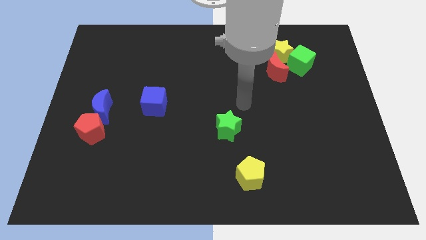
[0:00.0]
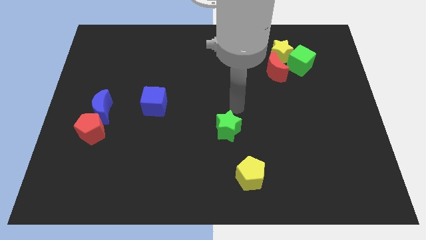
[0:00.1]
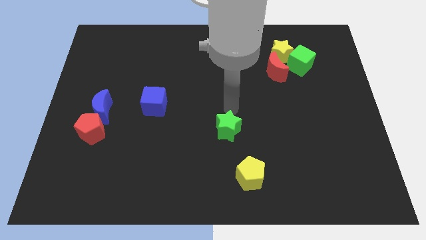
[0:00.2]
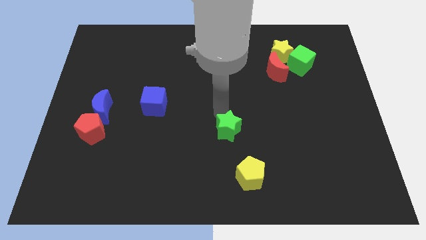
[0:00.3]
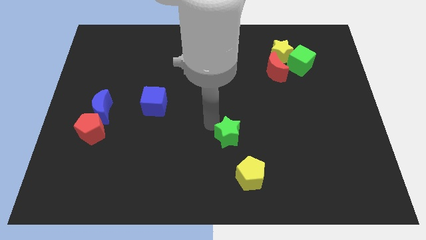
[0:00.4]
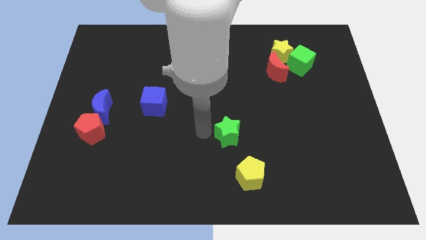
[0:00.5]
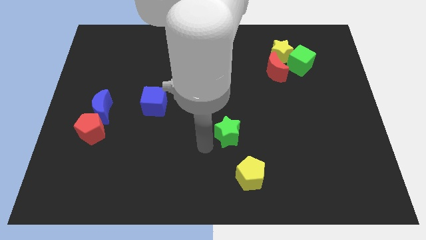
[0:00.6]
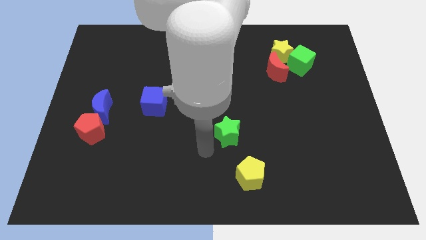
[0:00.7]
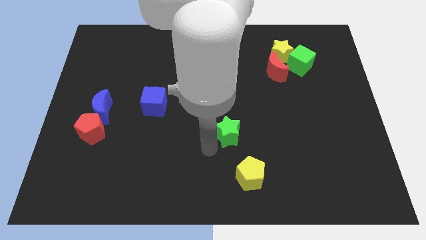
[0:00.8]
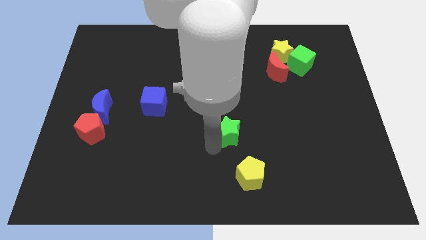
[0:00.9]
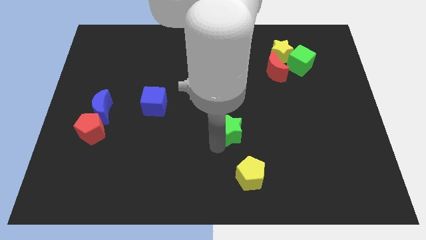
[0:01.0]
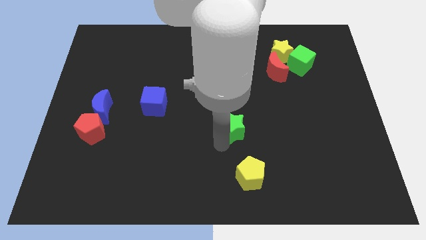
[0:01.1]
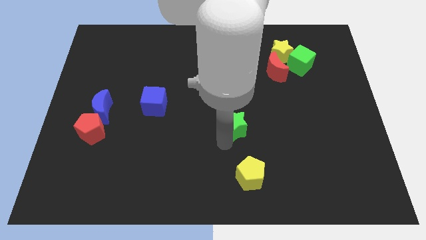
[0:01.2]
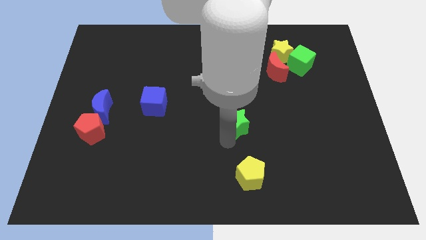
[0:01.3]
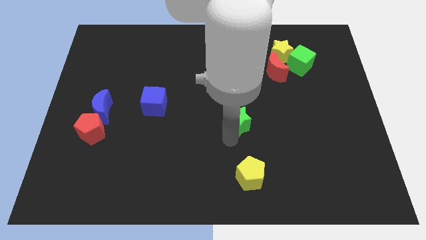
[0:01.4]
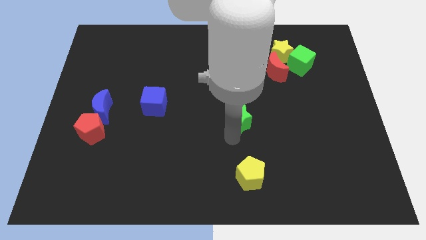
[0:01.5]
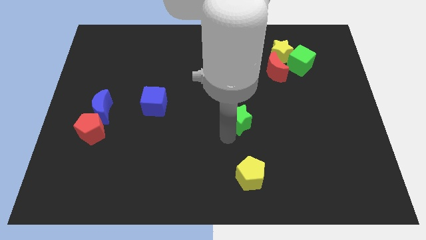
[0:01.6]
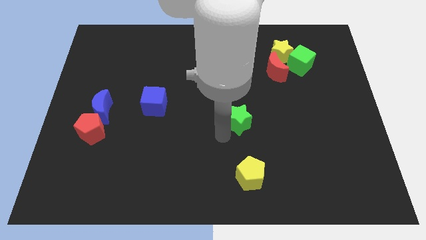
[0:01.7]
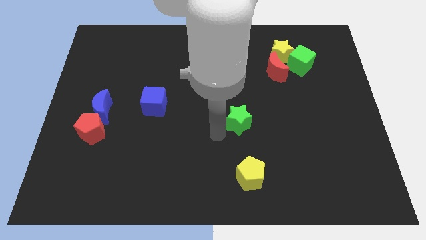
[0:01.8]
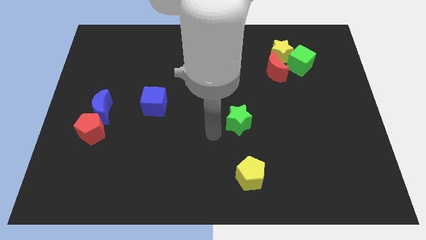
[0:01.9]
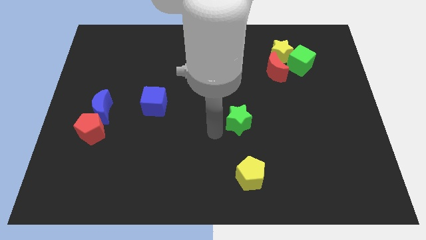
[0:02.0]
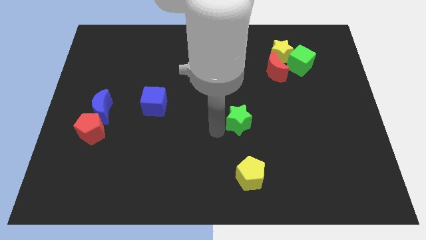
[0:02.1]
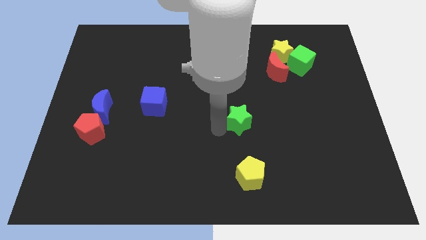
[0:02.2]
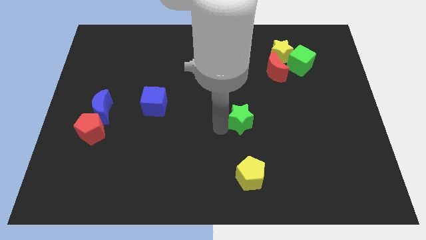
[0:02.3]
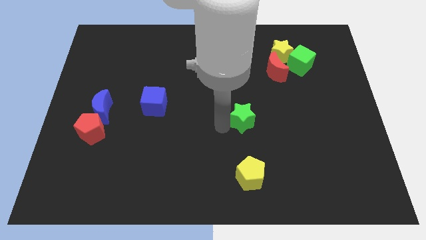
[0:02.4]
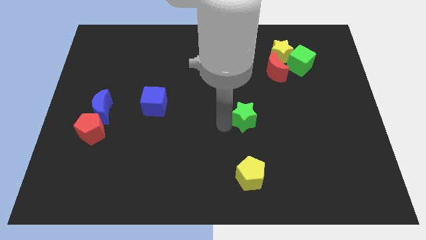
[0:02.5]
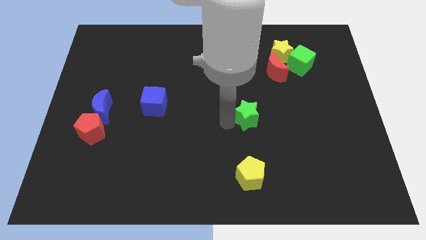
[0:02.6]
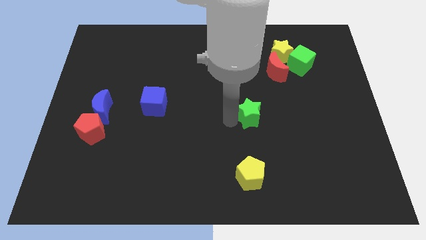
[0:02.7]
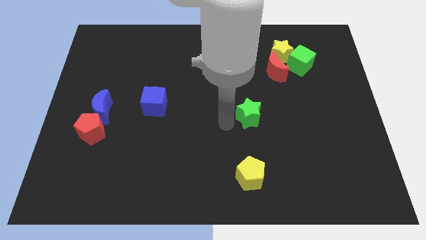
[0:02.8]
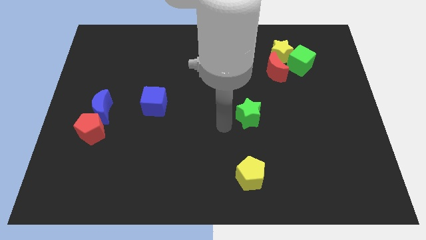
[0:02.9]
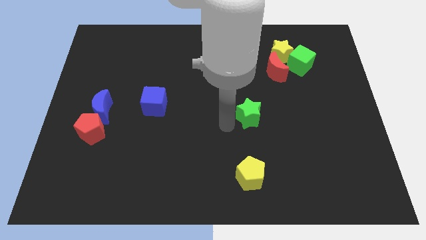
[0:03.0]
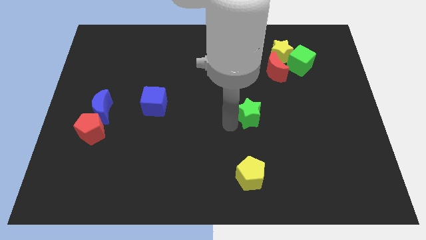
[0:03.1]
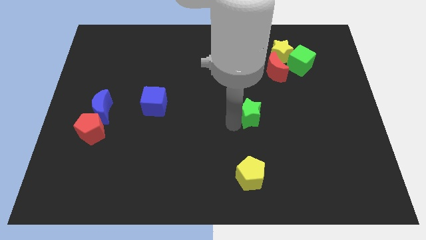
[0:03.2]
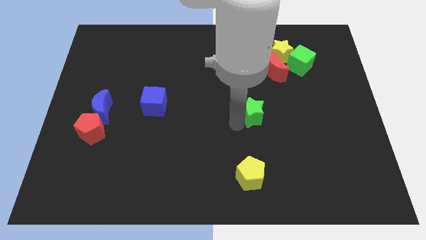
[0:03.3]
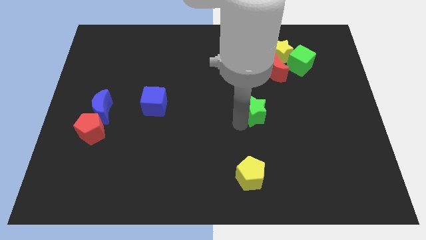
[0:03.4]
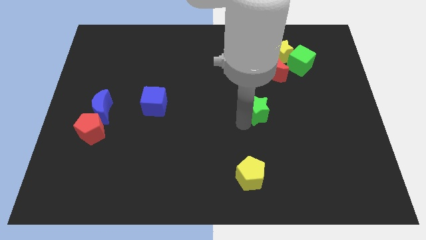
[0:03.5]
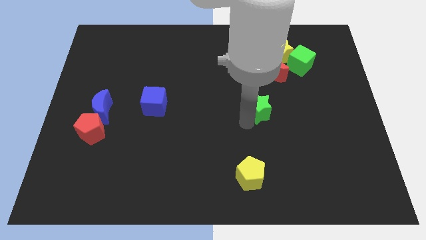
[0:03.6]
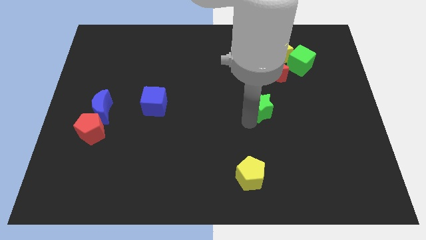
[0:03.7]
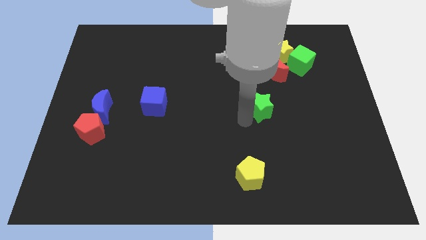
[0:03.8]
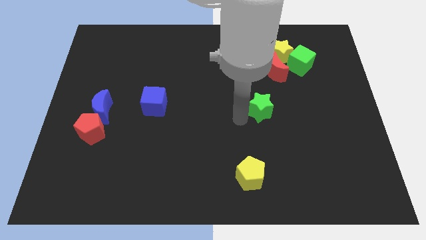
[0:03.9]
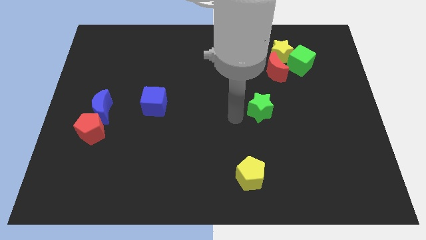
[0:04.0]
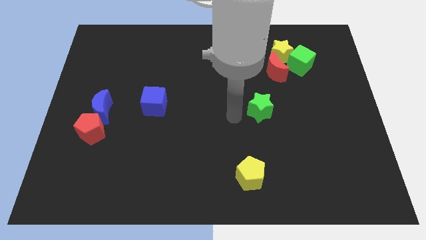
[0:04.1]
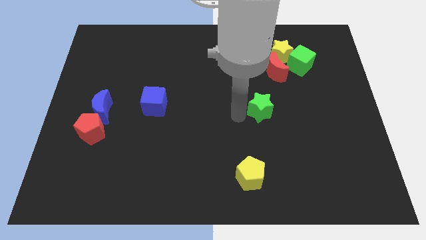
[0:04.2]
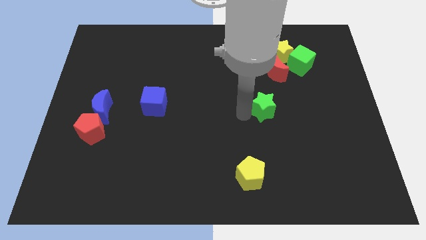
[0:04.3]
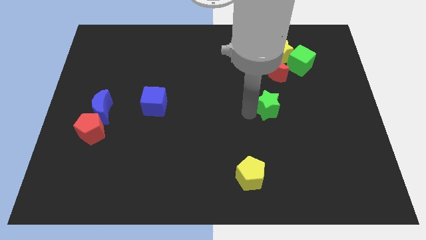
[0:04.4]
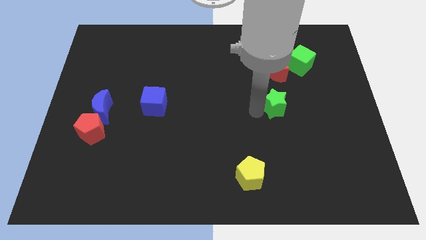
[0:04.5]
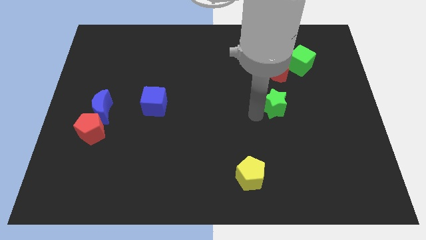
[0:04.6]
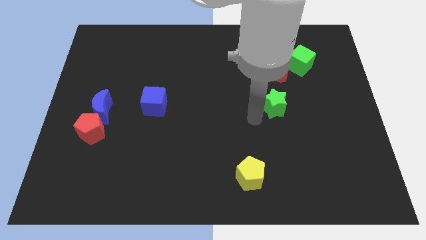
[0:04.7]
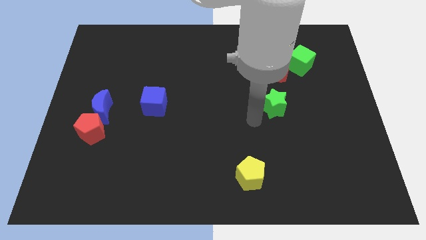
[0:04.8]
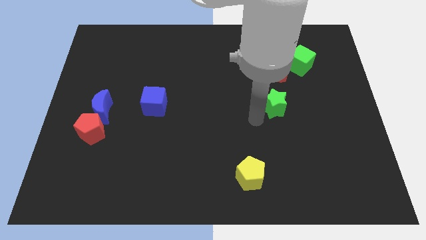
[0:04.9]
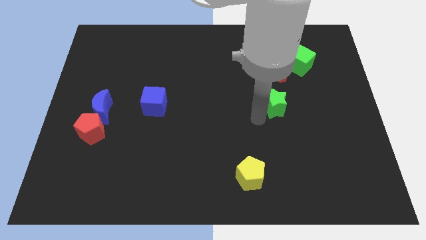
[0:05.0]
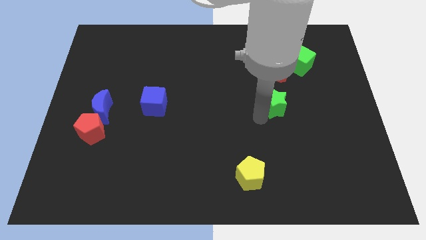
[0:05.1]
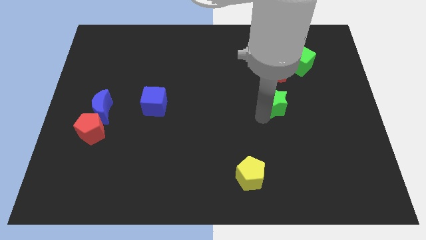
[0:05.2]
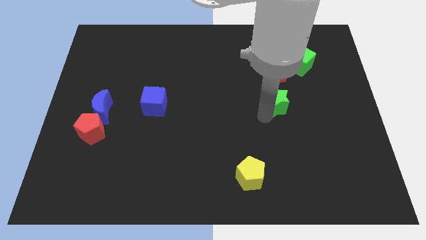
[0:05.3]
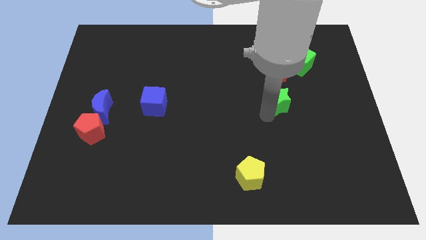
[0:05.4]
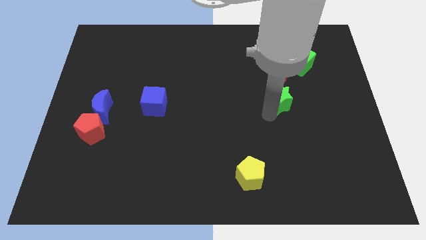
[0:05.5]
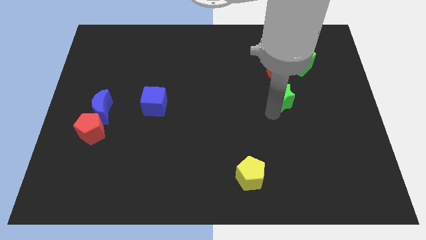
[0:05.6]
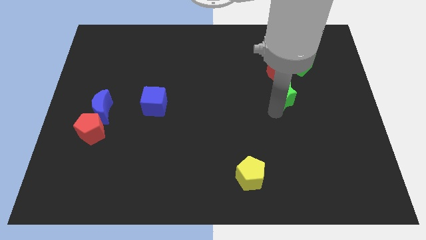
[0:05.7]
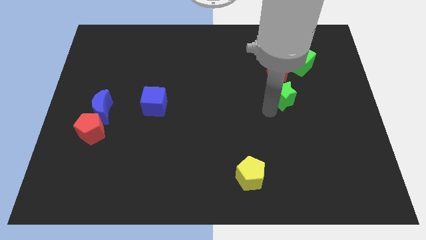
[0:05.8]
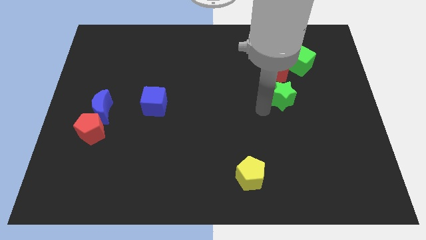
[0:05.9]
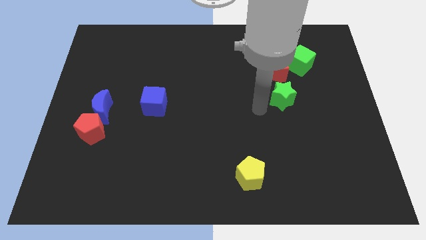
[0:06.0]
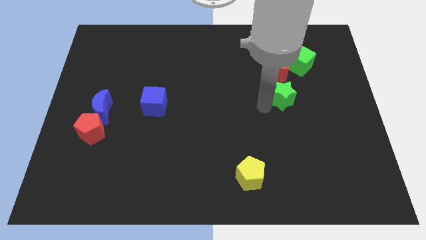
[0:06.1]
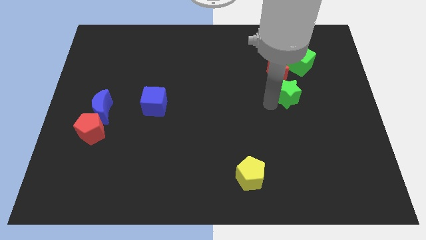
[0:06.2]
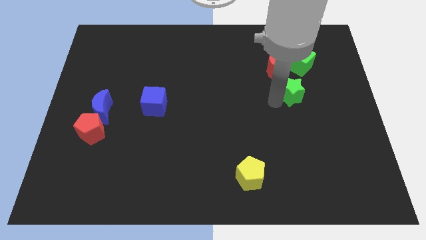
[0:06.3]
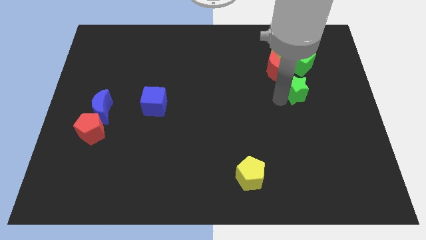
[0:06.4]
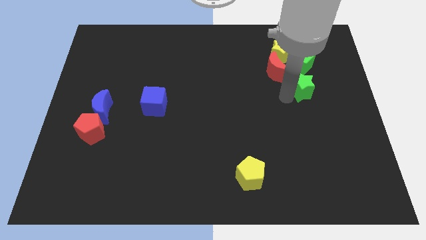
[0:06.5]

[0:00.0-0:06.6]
slide the green star diagonally up and to the right

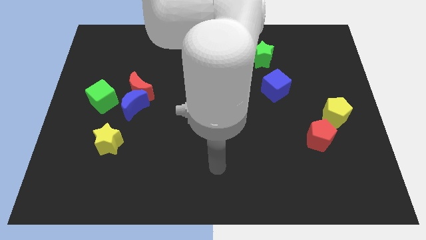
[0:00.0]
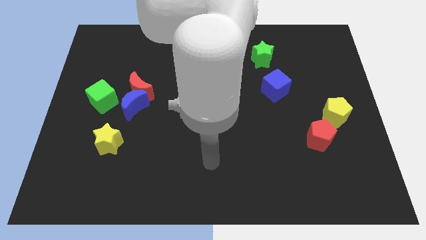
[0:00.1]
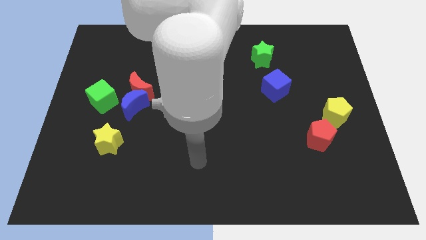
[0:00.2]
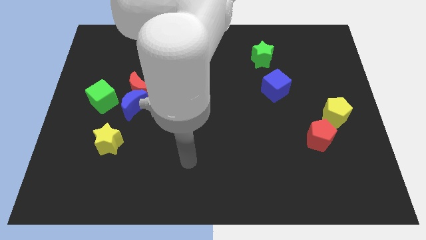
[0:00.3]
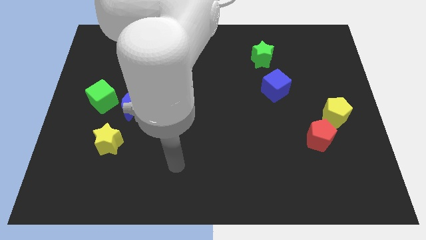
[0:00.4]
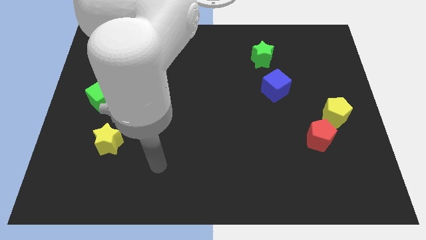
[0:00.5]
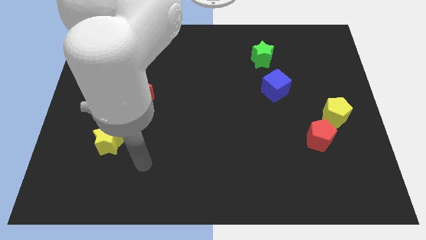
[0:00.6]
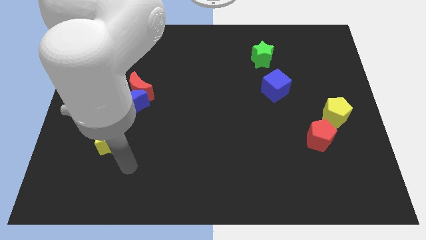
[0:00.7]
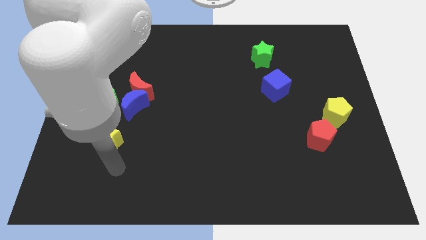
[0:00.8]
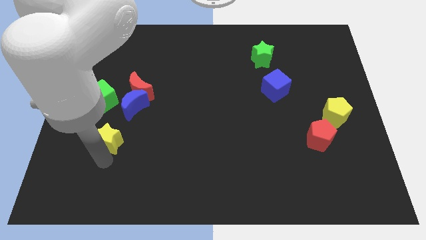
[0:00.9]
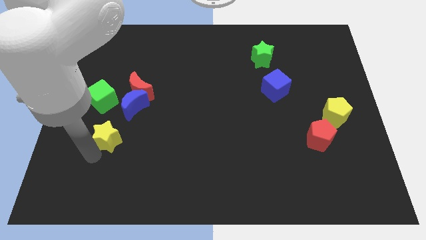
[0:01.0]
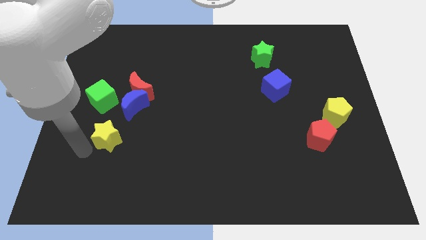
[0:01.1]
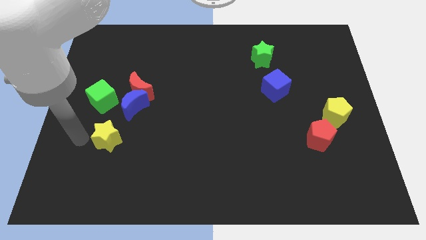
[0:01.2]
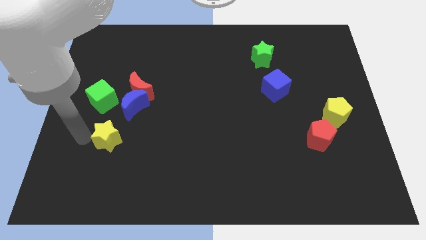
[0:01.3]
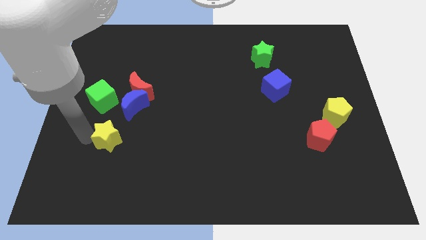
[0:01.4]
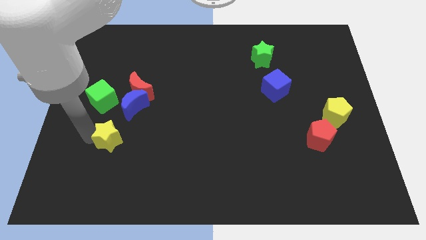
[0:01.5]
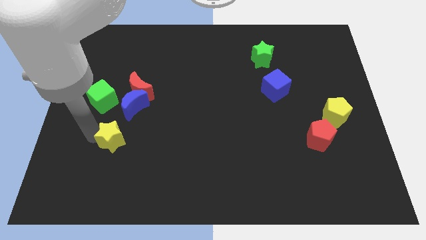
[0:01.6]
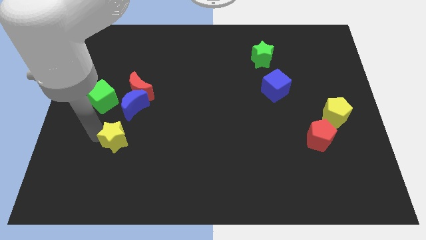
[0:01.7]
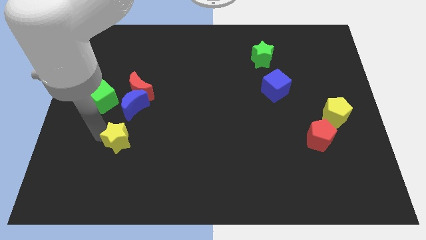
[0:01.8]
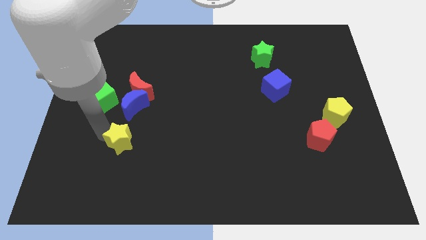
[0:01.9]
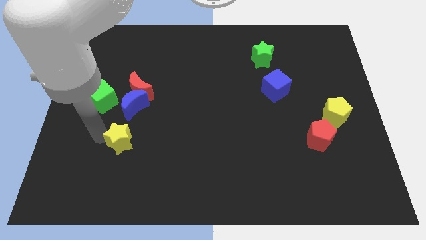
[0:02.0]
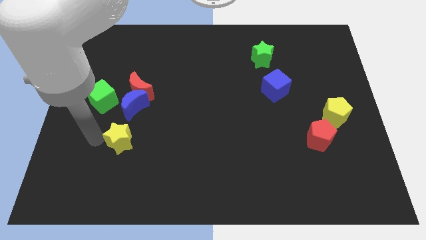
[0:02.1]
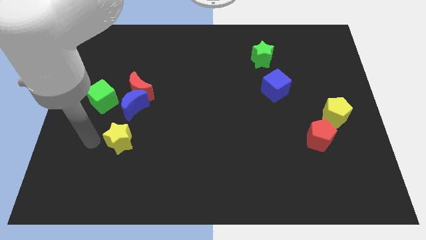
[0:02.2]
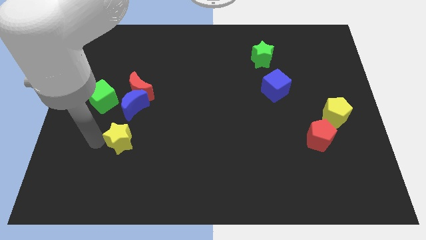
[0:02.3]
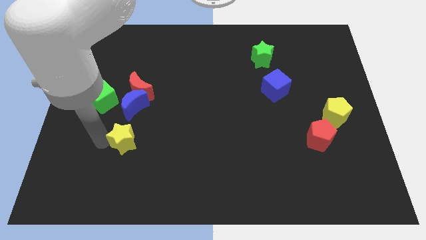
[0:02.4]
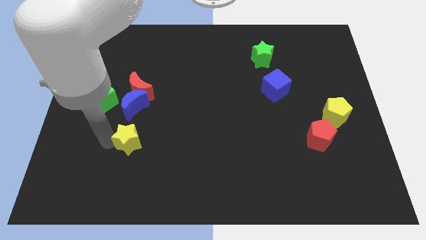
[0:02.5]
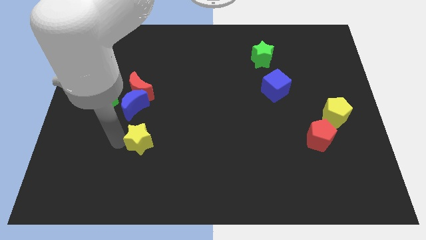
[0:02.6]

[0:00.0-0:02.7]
move the yellow star slightly to the right
